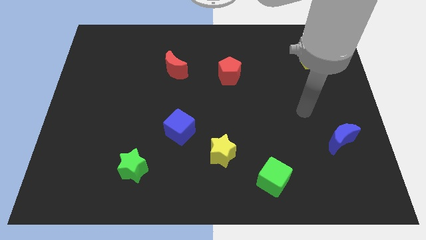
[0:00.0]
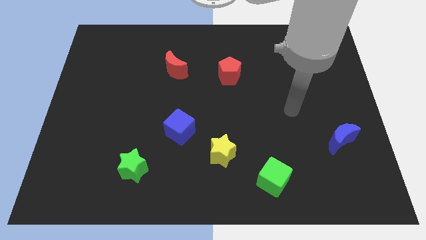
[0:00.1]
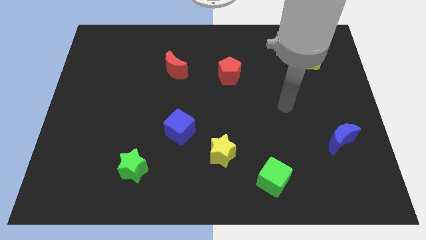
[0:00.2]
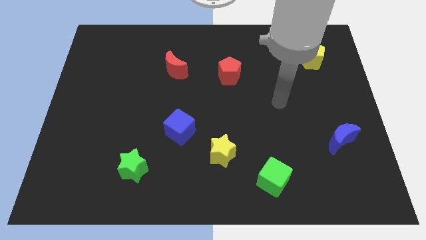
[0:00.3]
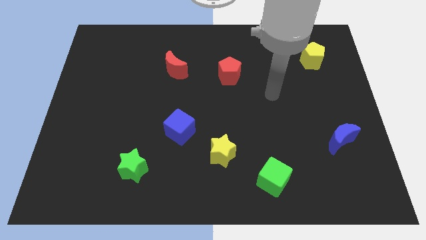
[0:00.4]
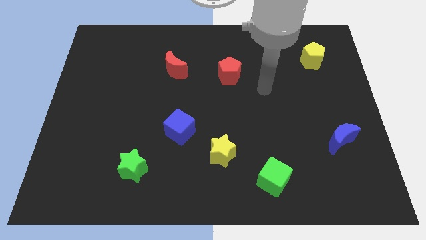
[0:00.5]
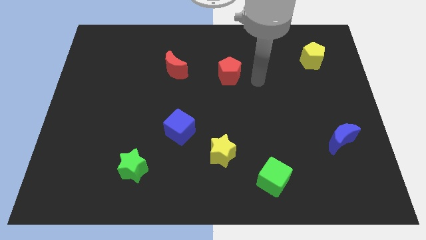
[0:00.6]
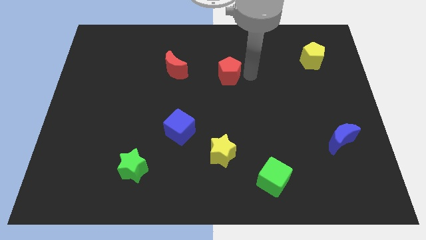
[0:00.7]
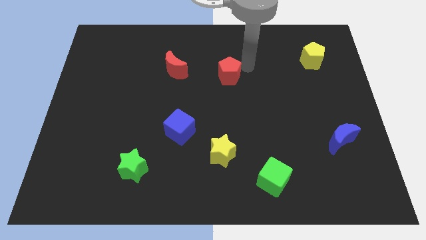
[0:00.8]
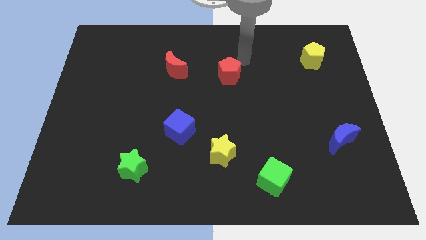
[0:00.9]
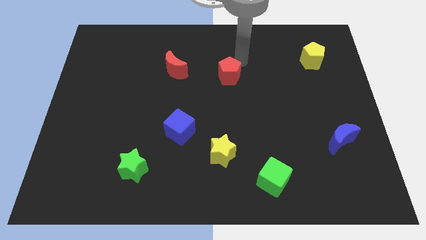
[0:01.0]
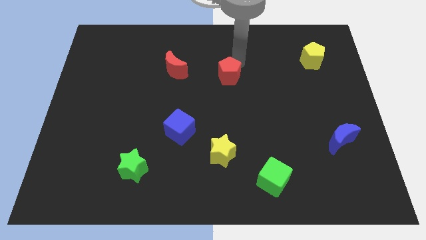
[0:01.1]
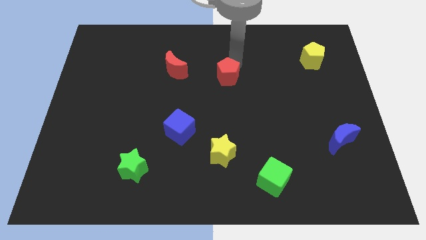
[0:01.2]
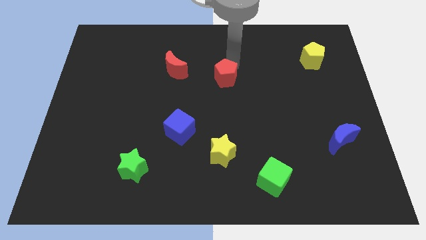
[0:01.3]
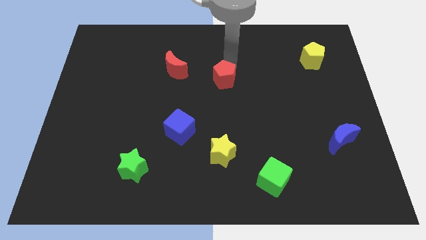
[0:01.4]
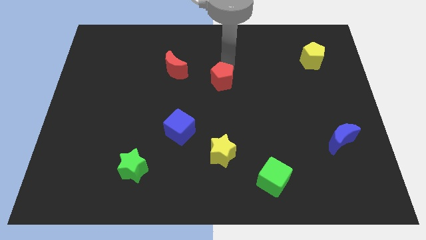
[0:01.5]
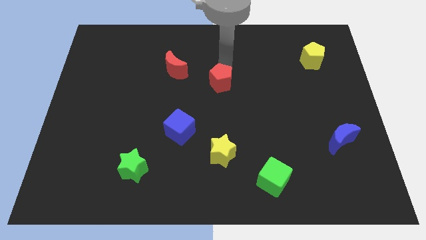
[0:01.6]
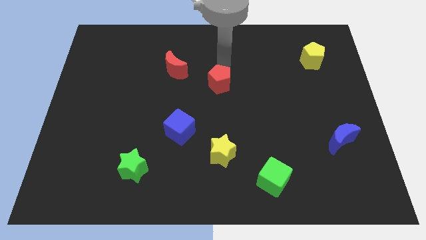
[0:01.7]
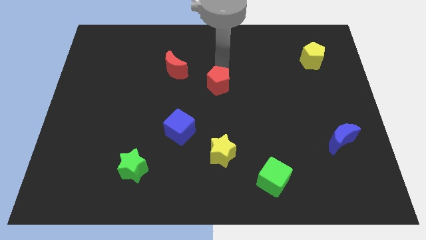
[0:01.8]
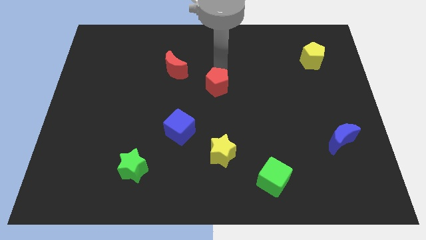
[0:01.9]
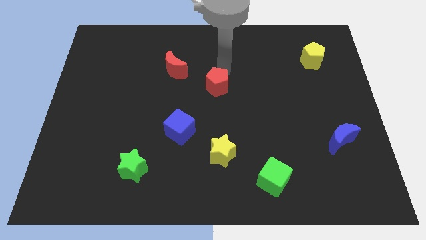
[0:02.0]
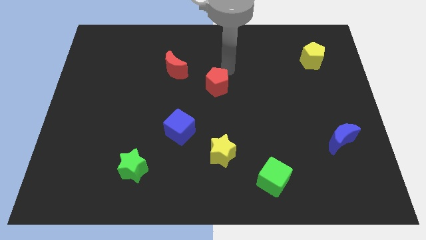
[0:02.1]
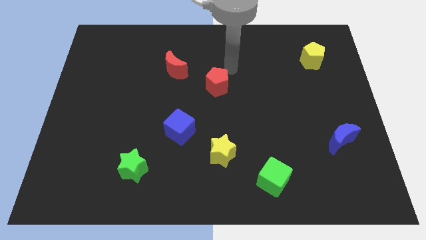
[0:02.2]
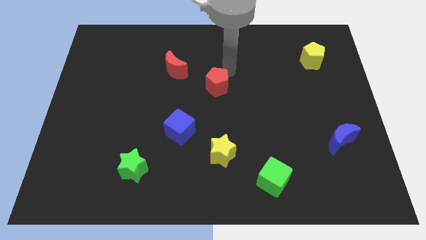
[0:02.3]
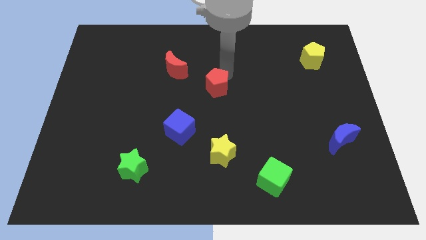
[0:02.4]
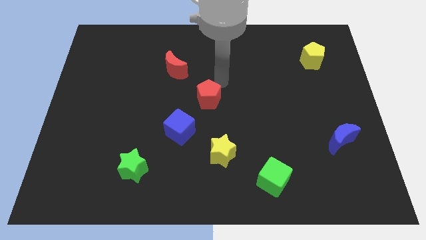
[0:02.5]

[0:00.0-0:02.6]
slide the red pentagon downwards and left diagonally a little

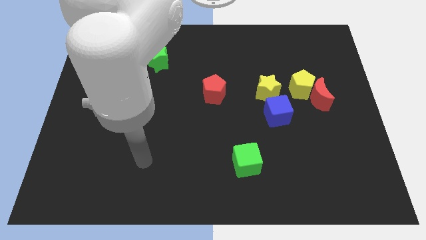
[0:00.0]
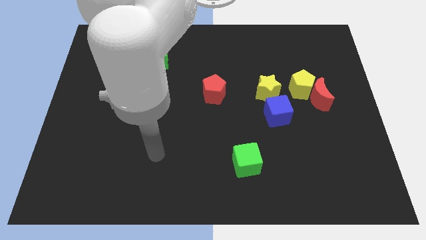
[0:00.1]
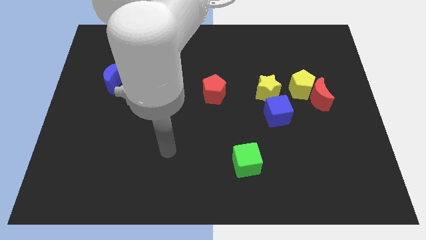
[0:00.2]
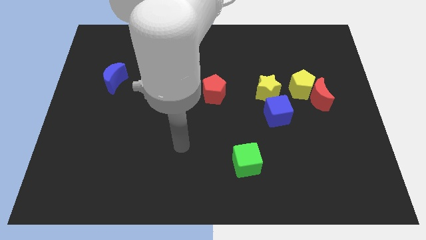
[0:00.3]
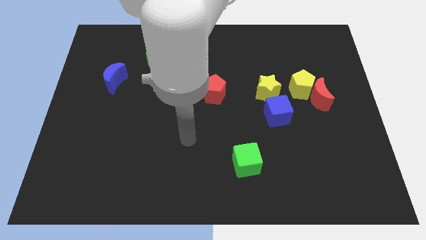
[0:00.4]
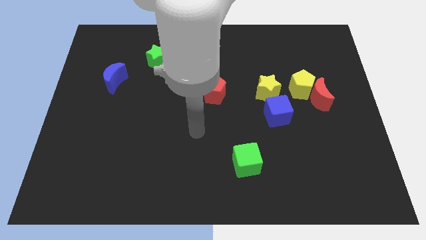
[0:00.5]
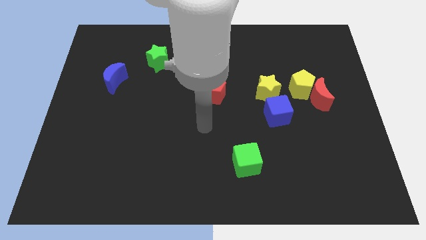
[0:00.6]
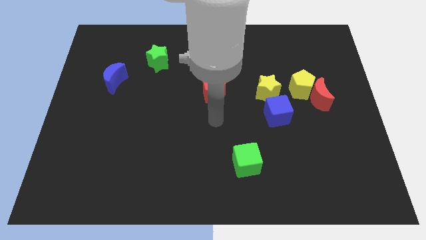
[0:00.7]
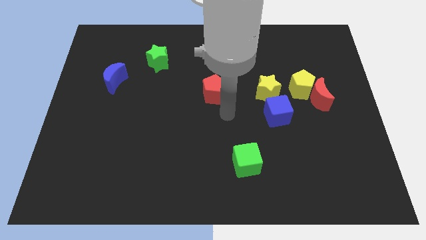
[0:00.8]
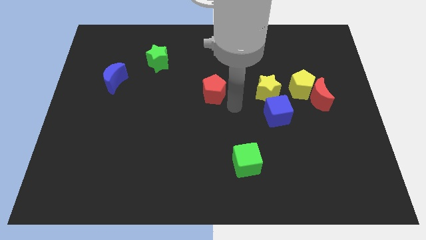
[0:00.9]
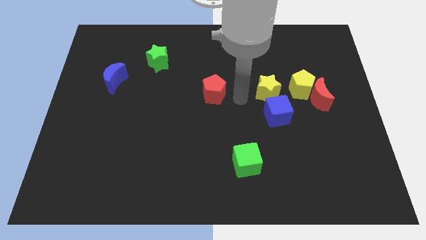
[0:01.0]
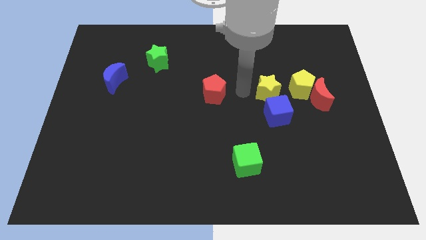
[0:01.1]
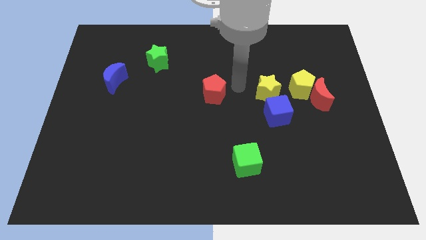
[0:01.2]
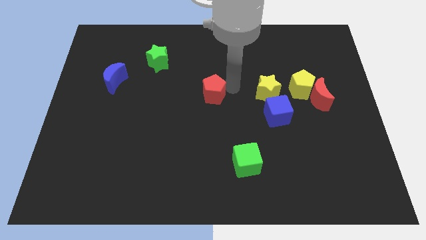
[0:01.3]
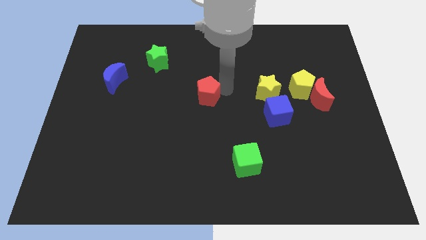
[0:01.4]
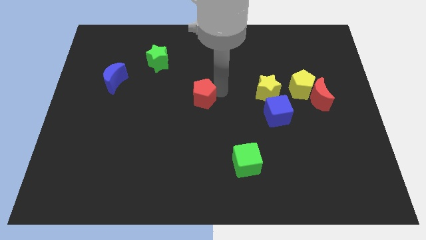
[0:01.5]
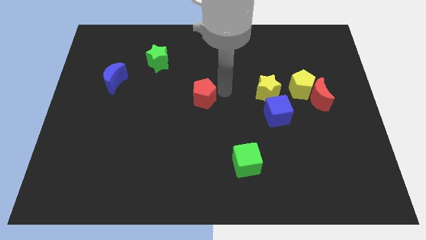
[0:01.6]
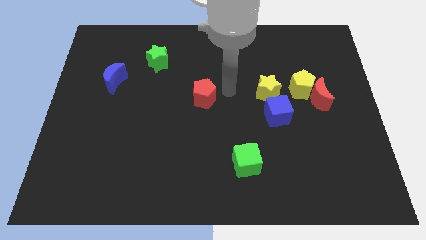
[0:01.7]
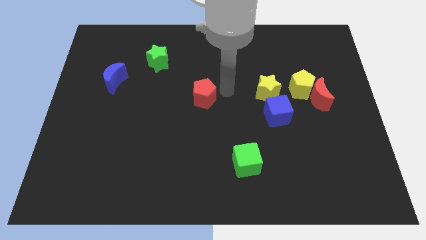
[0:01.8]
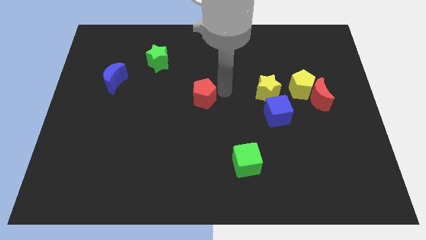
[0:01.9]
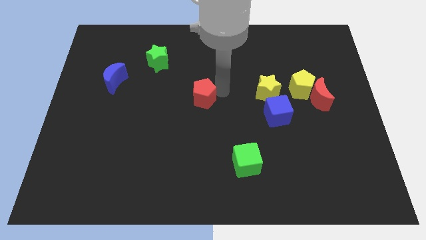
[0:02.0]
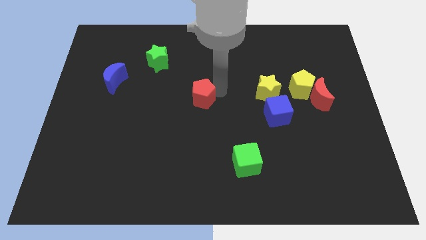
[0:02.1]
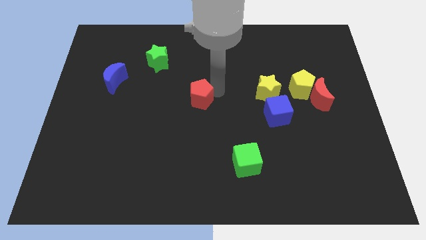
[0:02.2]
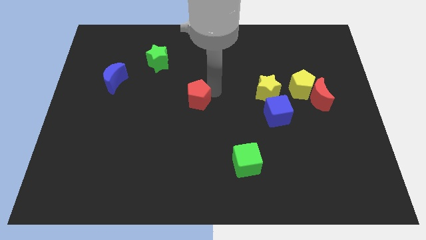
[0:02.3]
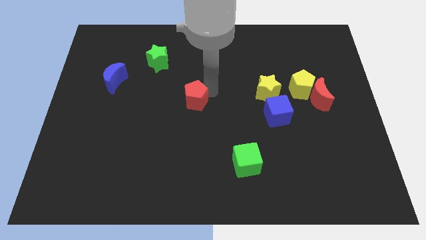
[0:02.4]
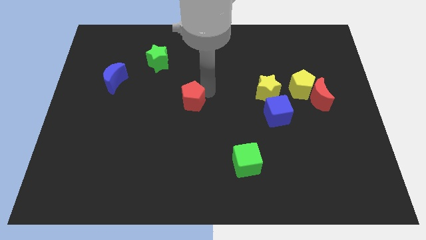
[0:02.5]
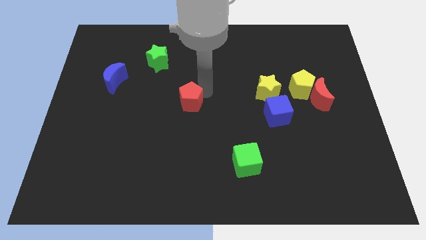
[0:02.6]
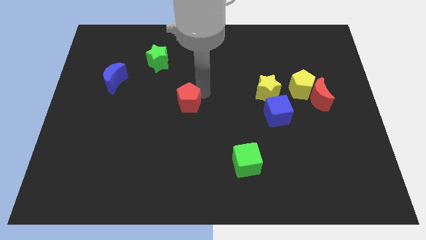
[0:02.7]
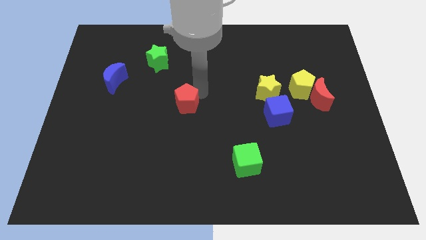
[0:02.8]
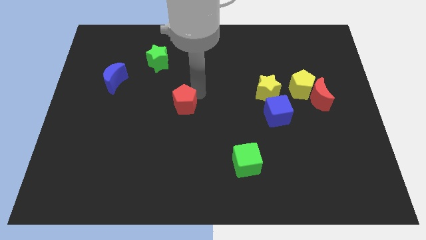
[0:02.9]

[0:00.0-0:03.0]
move the red pentagon diagonally down and left a bit

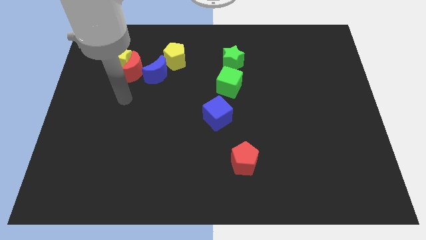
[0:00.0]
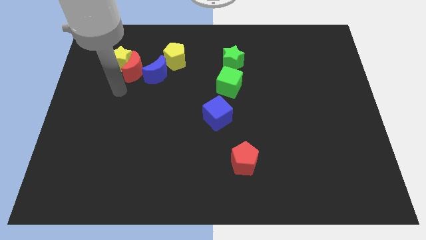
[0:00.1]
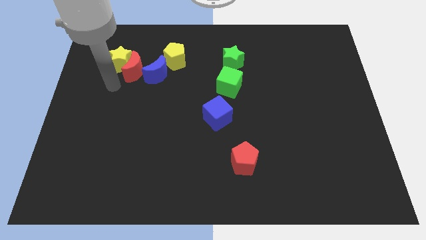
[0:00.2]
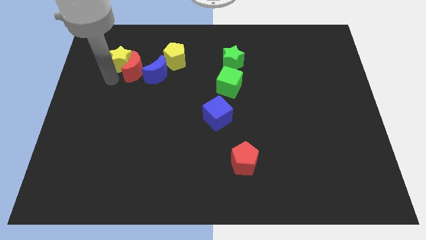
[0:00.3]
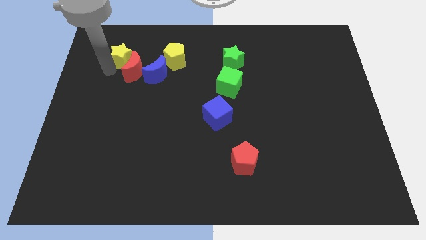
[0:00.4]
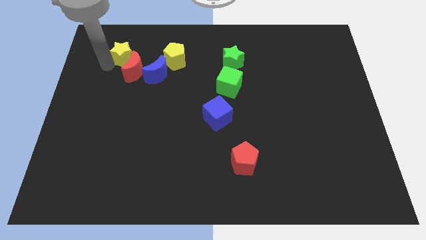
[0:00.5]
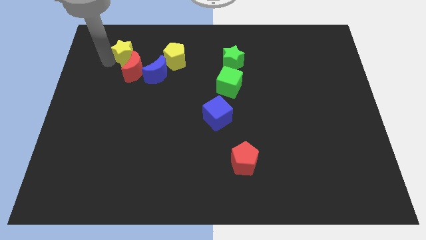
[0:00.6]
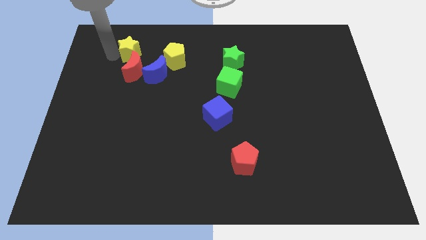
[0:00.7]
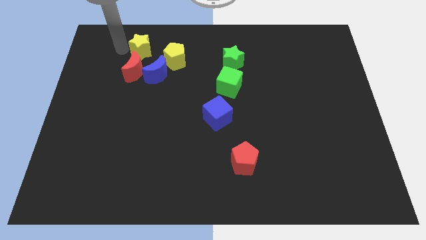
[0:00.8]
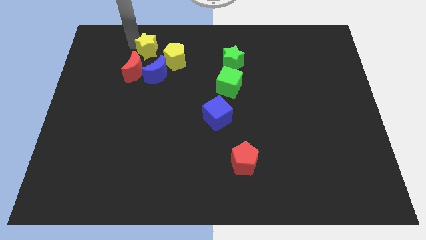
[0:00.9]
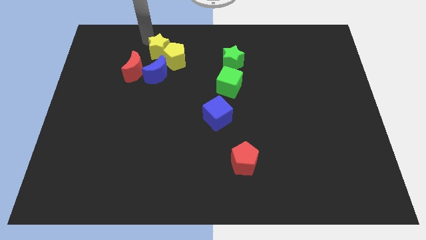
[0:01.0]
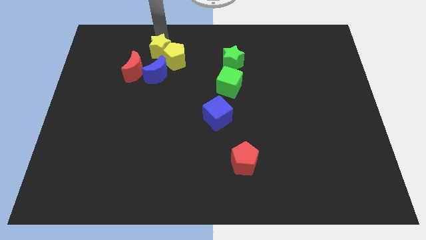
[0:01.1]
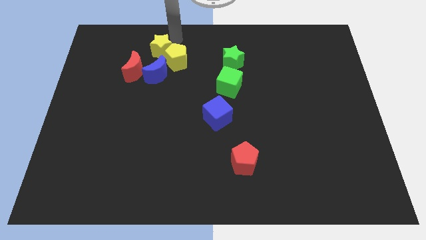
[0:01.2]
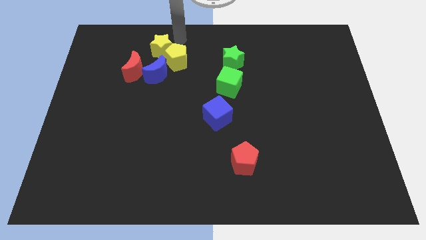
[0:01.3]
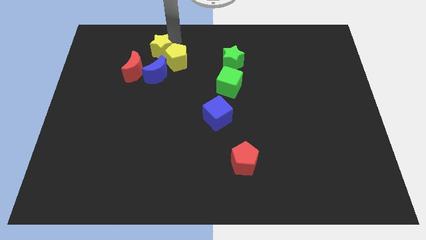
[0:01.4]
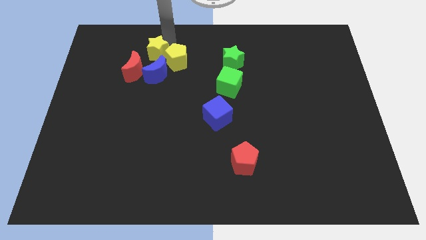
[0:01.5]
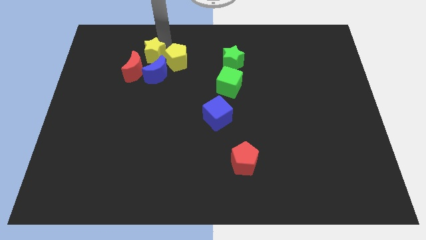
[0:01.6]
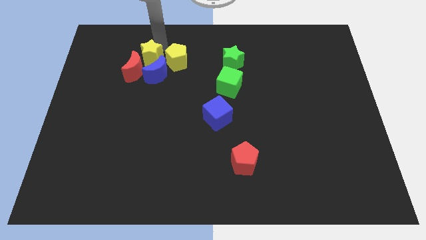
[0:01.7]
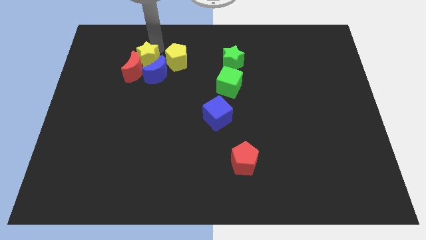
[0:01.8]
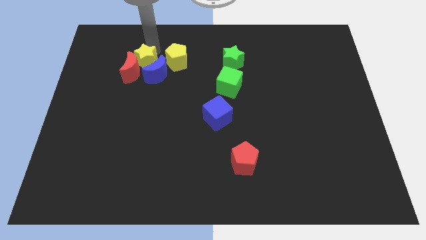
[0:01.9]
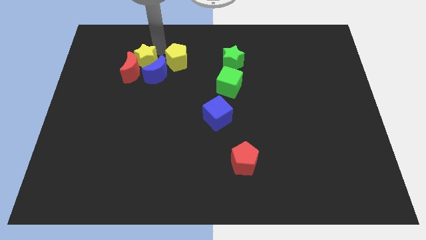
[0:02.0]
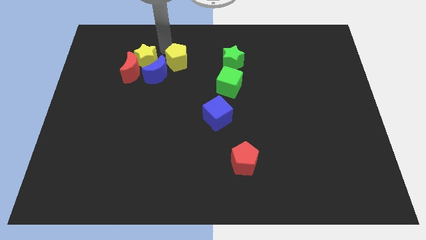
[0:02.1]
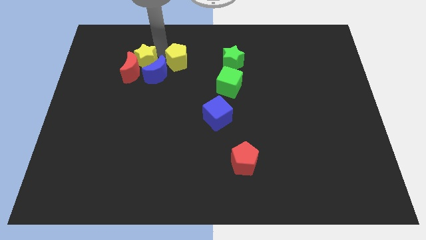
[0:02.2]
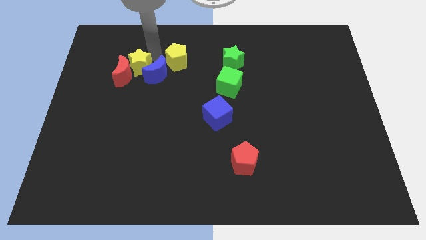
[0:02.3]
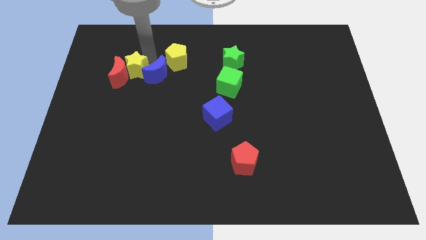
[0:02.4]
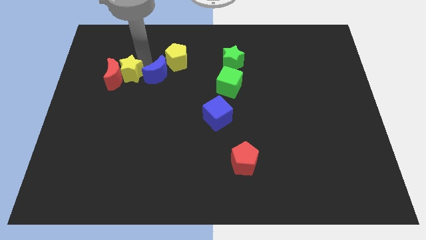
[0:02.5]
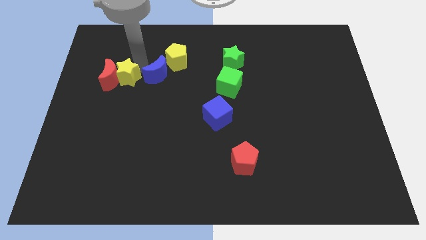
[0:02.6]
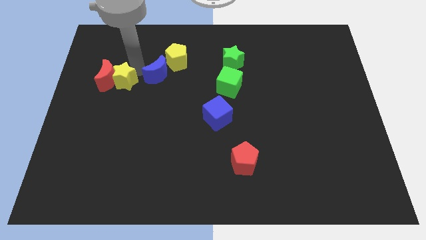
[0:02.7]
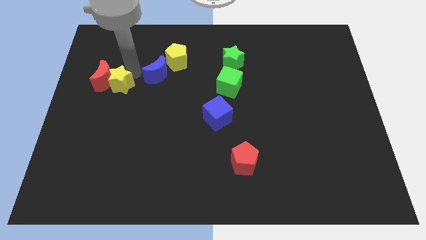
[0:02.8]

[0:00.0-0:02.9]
move the yellow star slightly down
